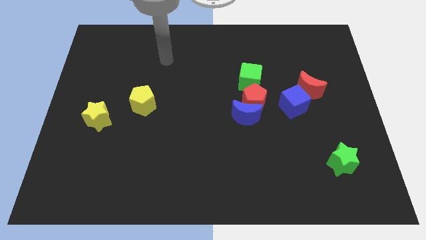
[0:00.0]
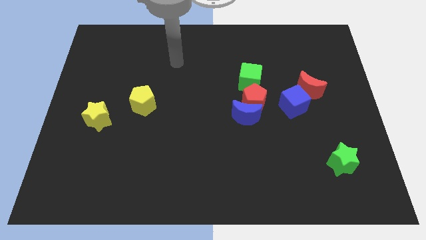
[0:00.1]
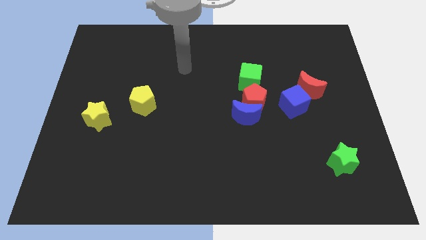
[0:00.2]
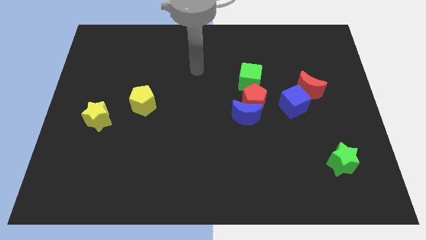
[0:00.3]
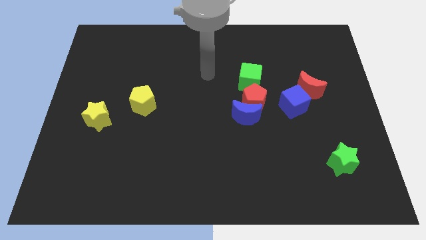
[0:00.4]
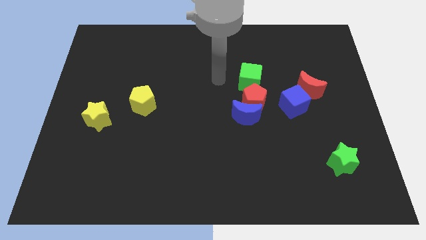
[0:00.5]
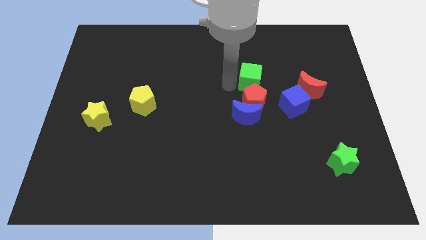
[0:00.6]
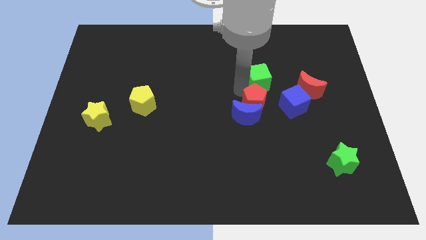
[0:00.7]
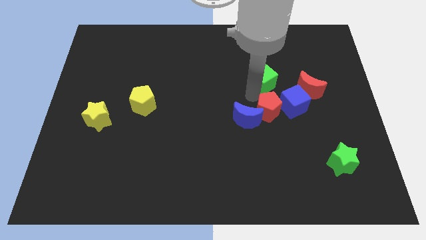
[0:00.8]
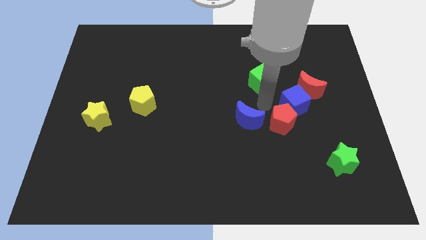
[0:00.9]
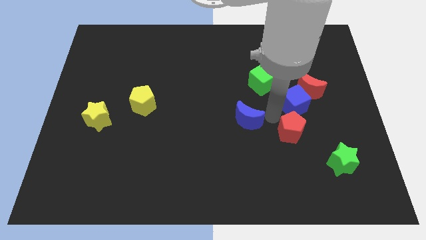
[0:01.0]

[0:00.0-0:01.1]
move the blue moon away from the red pentagon

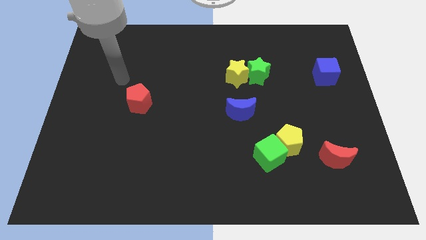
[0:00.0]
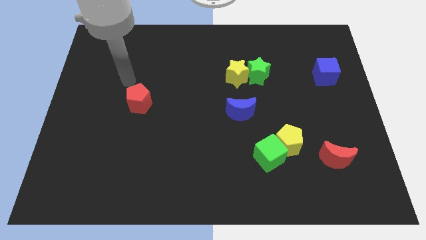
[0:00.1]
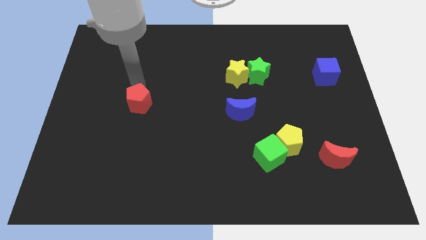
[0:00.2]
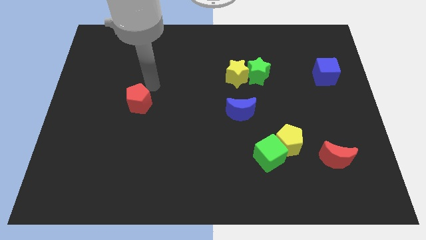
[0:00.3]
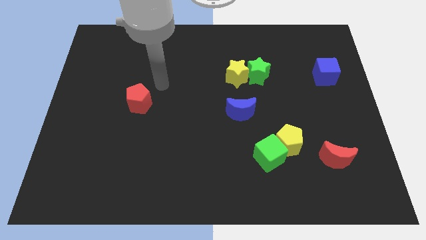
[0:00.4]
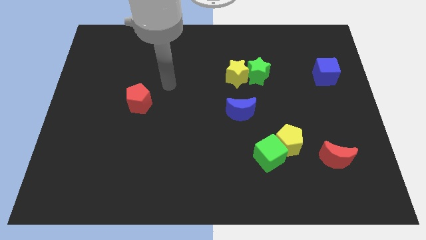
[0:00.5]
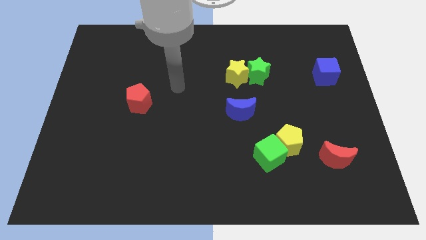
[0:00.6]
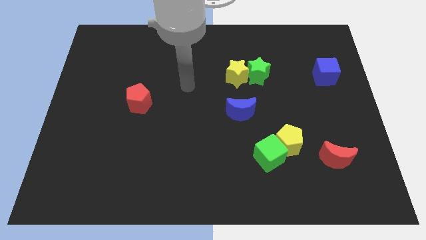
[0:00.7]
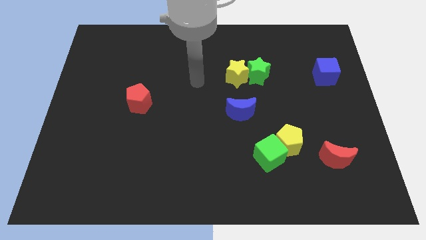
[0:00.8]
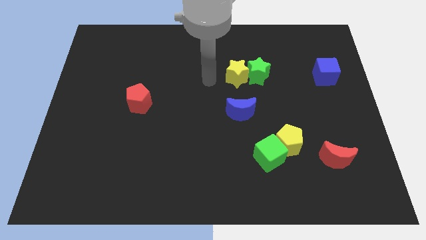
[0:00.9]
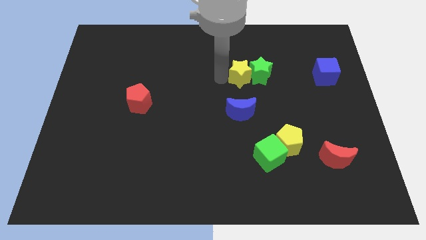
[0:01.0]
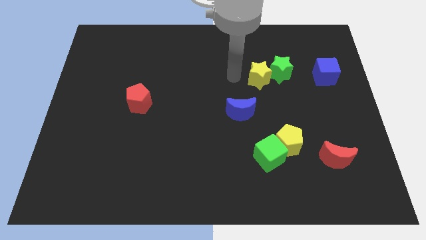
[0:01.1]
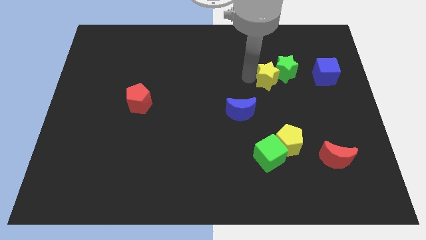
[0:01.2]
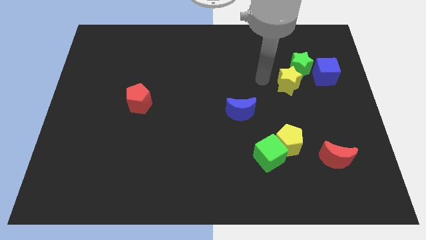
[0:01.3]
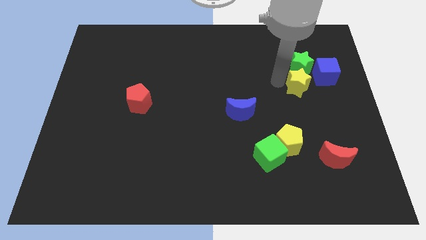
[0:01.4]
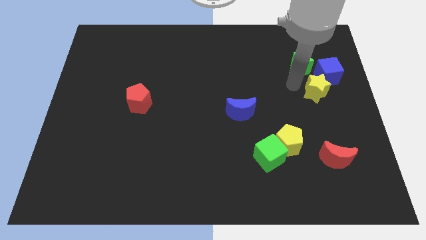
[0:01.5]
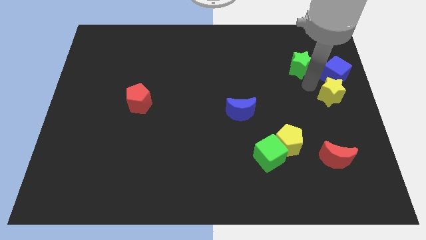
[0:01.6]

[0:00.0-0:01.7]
separate the green star from the yellow star

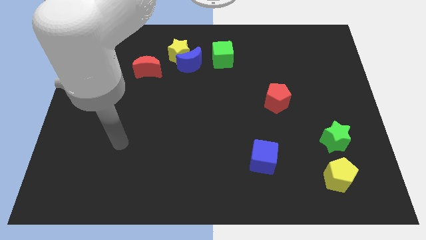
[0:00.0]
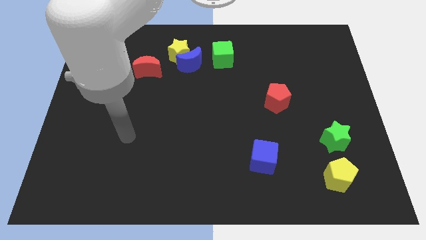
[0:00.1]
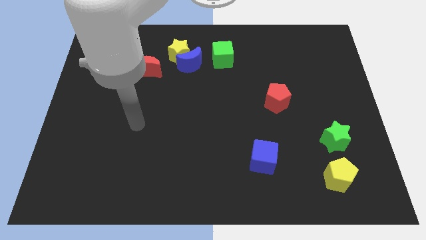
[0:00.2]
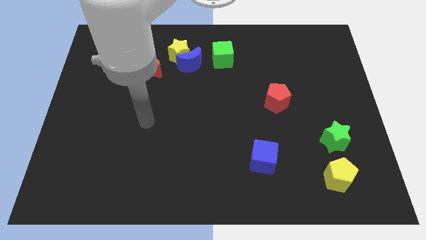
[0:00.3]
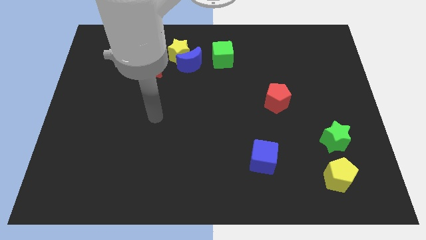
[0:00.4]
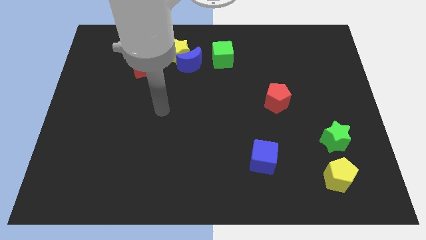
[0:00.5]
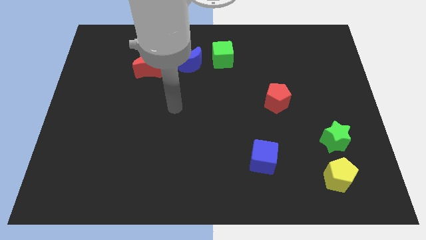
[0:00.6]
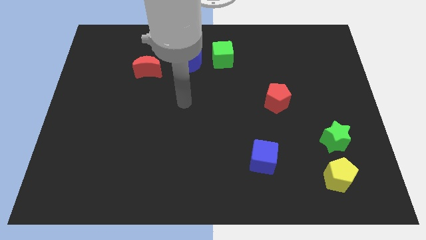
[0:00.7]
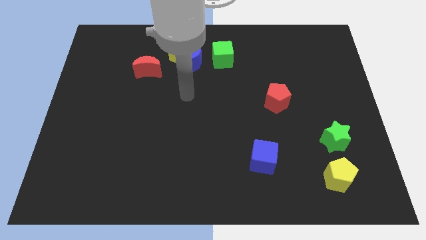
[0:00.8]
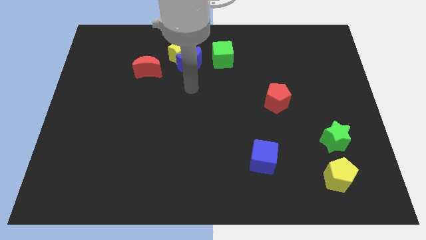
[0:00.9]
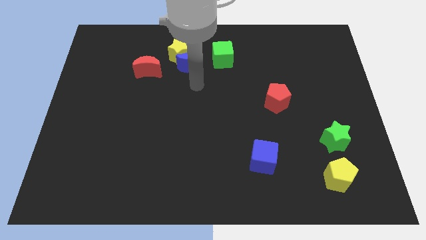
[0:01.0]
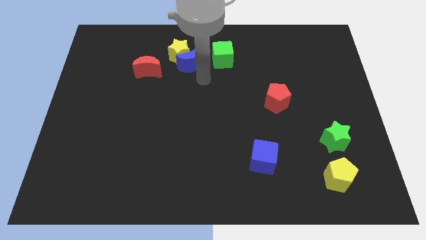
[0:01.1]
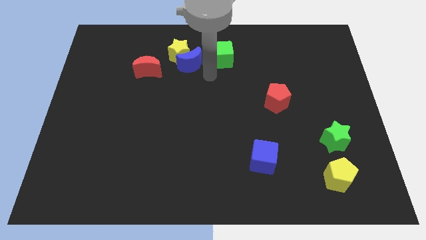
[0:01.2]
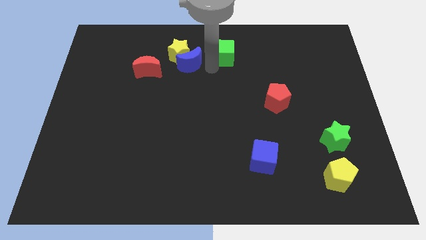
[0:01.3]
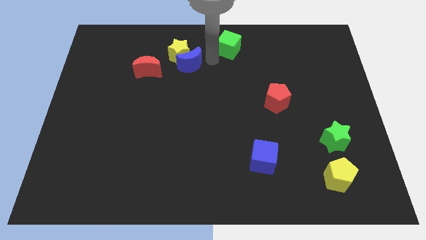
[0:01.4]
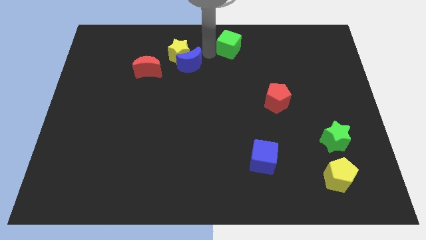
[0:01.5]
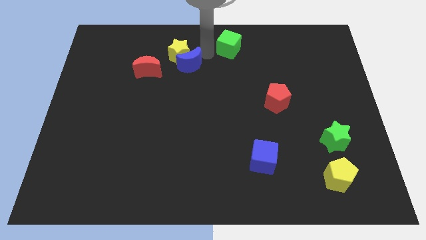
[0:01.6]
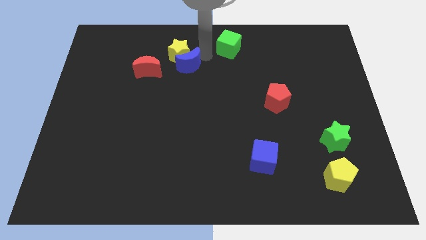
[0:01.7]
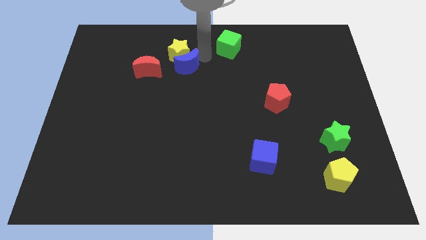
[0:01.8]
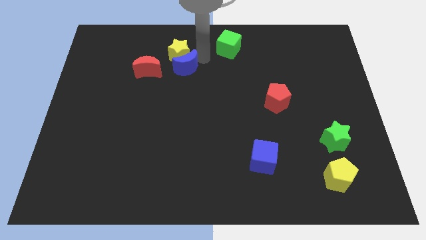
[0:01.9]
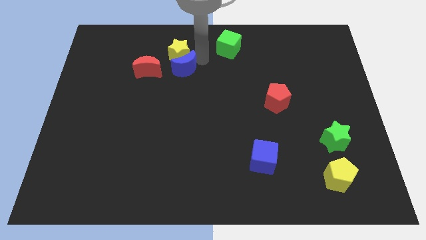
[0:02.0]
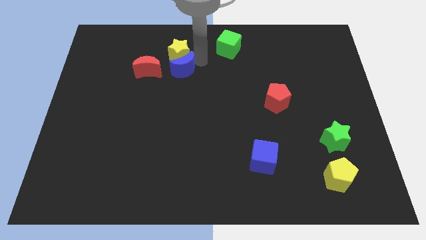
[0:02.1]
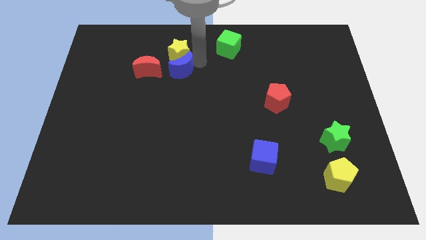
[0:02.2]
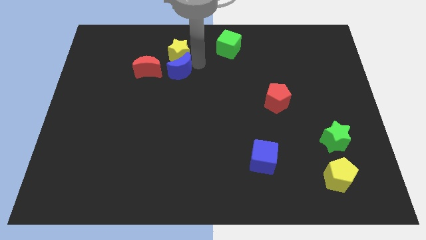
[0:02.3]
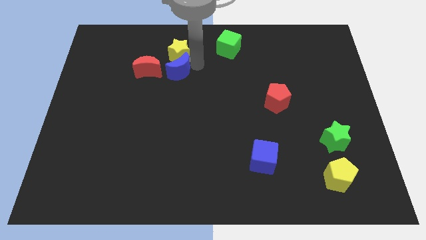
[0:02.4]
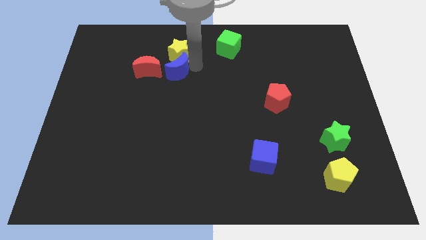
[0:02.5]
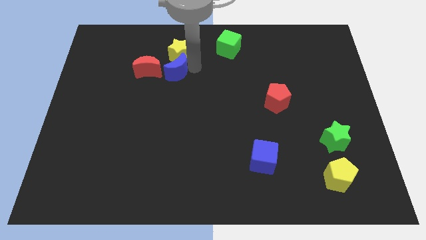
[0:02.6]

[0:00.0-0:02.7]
pull the blue moon apart from the yellow star and green cube

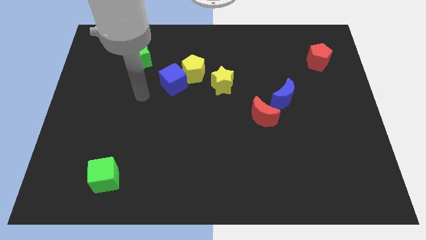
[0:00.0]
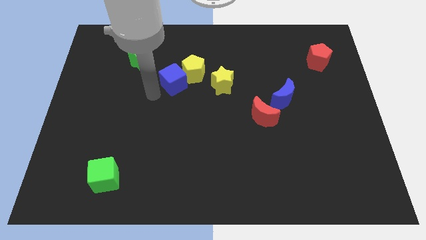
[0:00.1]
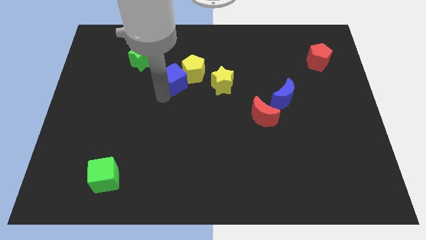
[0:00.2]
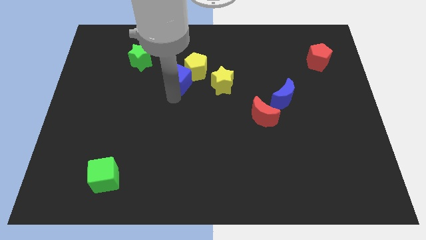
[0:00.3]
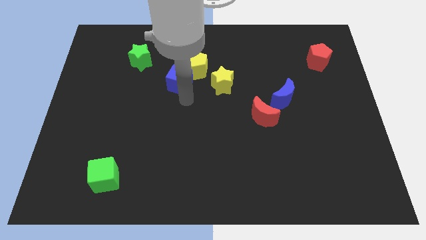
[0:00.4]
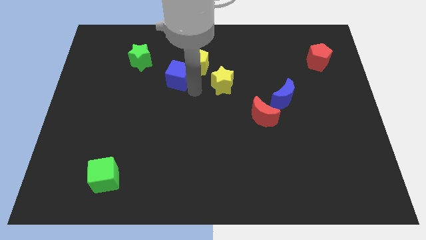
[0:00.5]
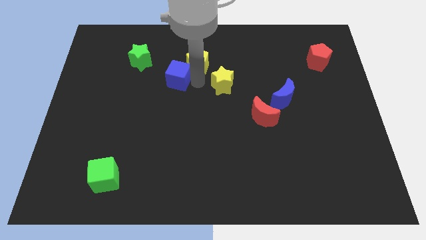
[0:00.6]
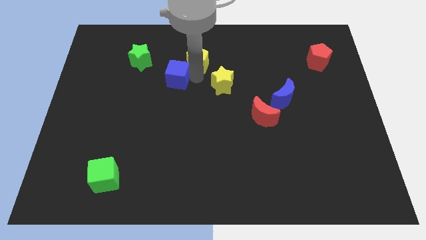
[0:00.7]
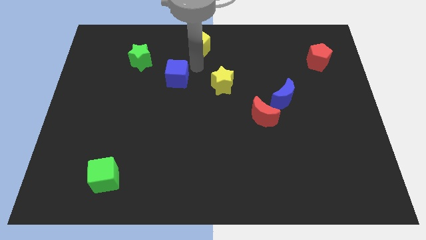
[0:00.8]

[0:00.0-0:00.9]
pull the blue cube apart from the yellow pentagon

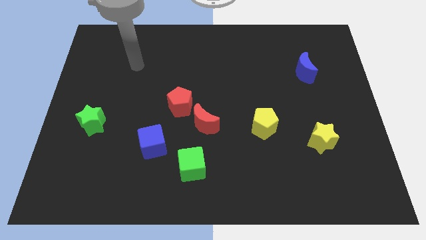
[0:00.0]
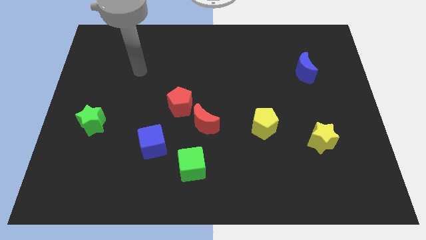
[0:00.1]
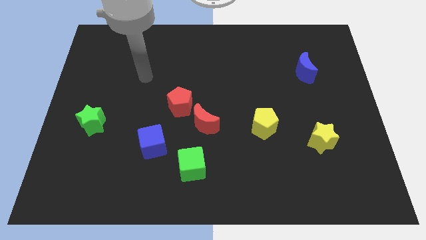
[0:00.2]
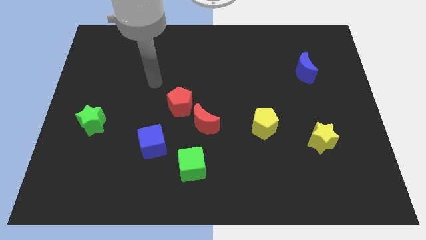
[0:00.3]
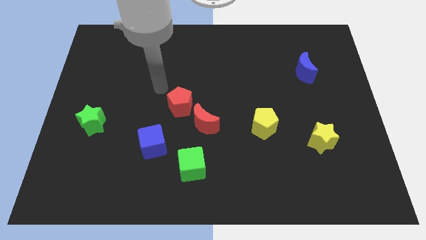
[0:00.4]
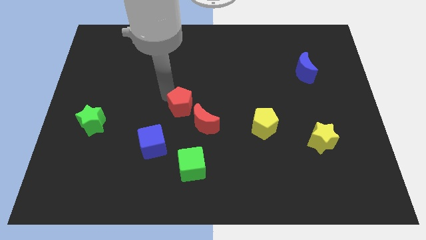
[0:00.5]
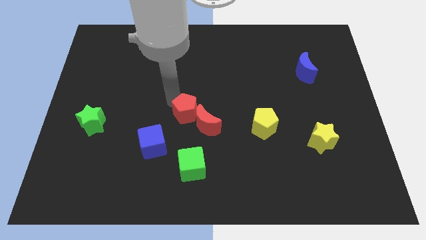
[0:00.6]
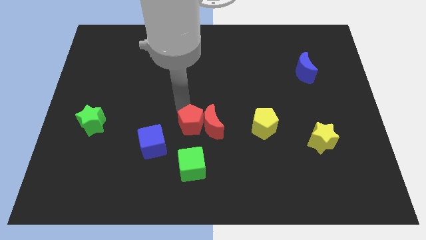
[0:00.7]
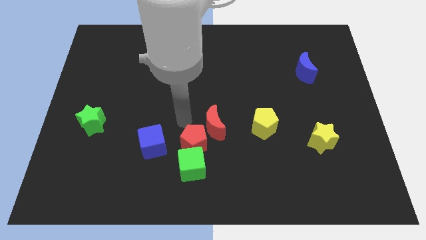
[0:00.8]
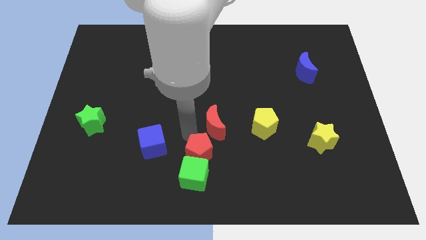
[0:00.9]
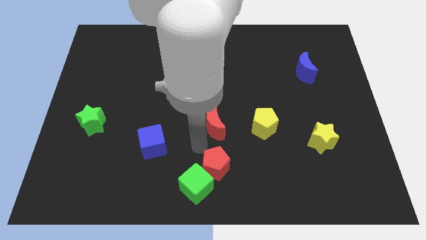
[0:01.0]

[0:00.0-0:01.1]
separate the red moon from the red pentagon

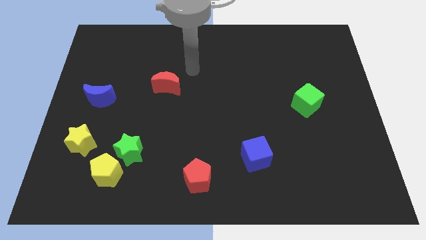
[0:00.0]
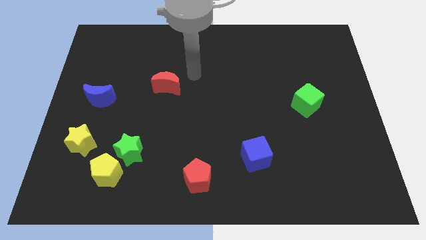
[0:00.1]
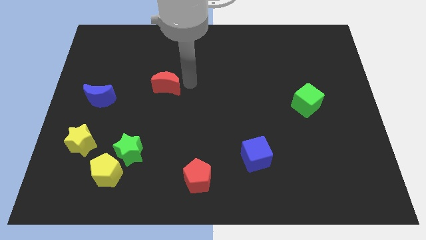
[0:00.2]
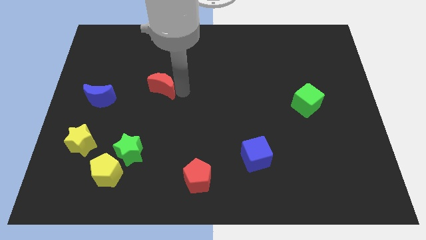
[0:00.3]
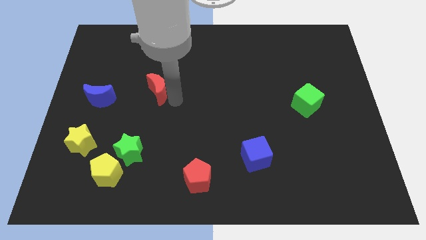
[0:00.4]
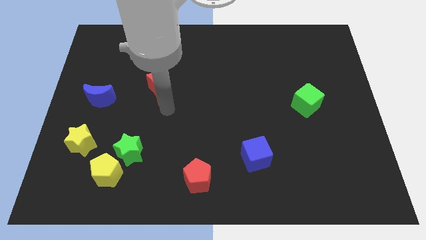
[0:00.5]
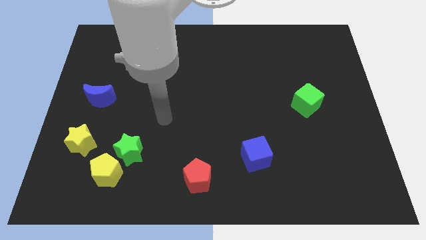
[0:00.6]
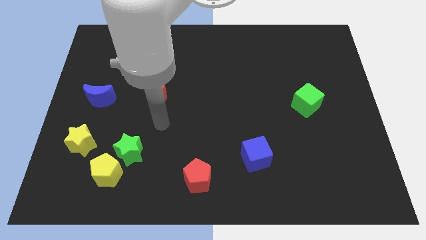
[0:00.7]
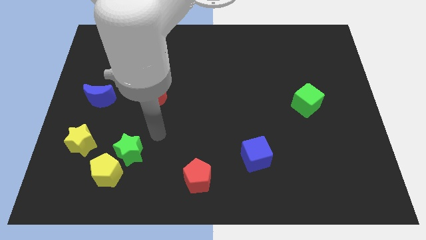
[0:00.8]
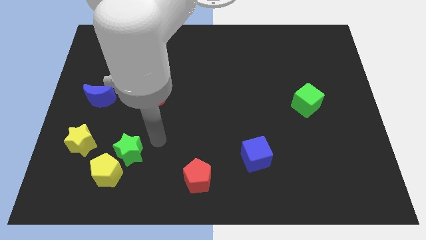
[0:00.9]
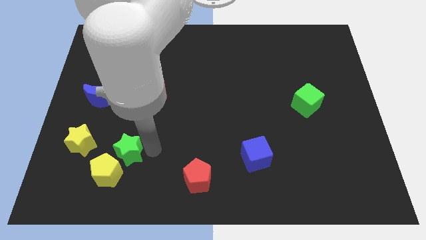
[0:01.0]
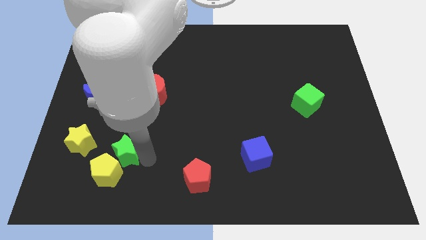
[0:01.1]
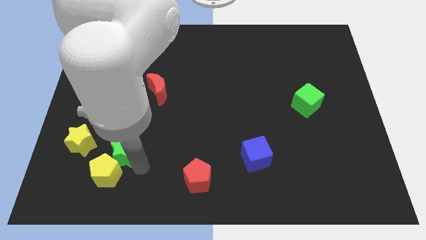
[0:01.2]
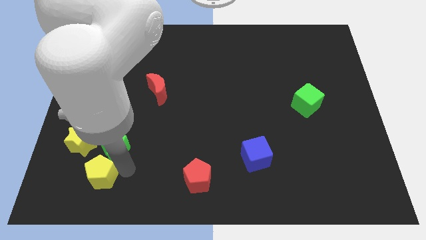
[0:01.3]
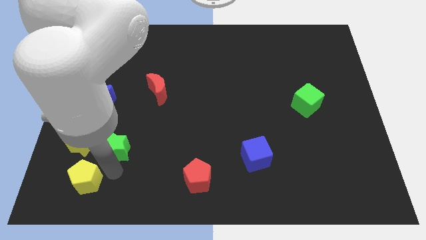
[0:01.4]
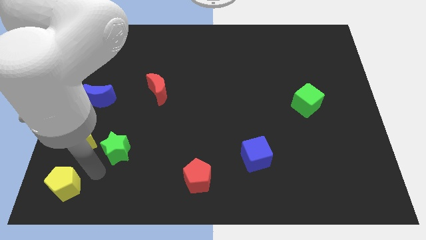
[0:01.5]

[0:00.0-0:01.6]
move the green star away from the yellow pentagon

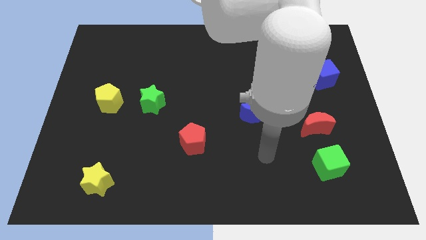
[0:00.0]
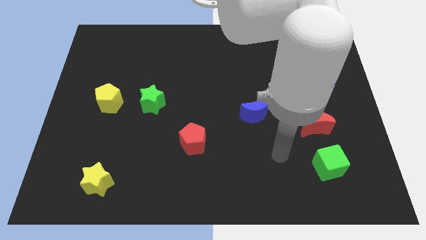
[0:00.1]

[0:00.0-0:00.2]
move the red moon away from the green cube
